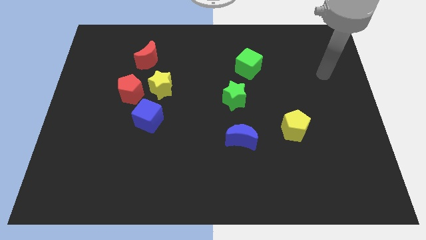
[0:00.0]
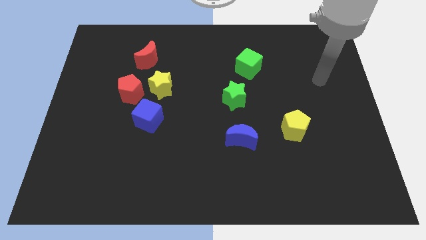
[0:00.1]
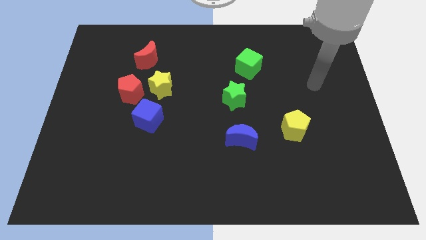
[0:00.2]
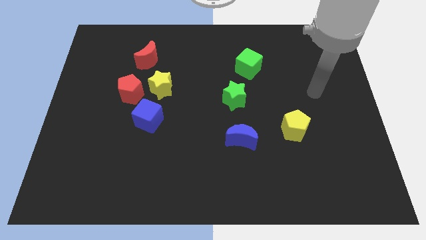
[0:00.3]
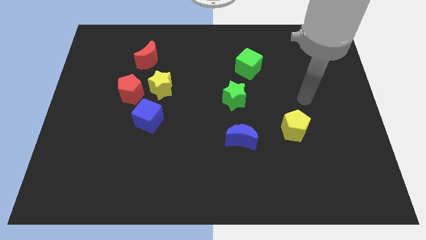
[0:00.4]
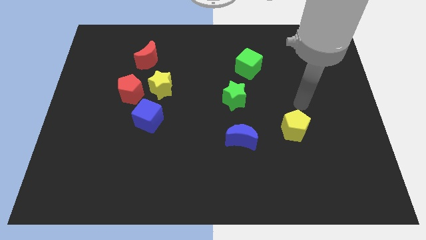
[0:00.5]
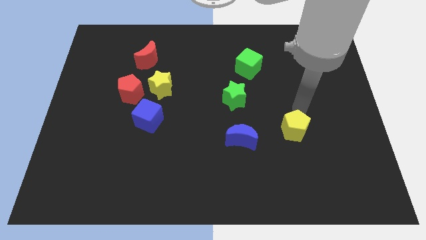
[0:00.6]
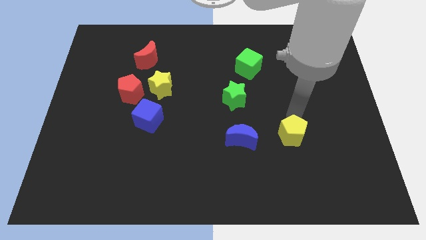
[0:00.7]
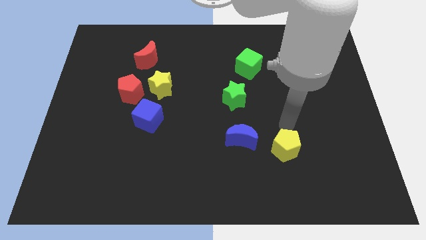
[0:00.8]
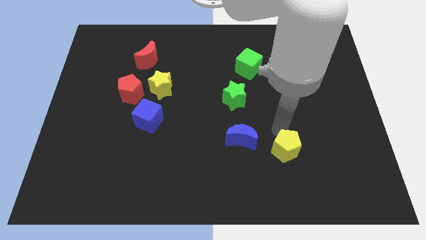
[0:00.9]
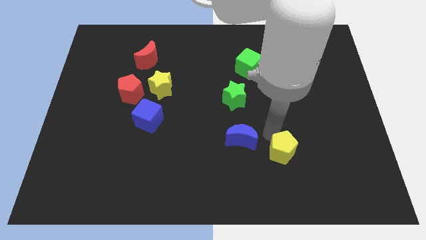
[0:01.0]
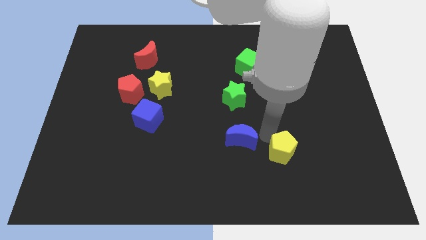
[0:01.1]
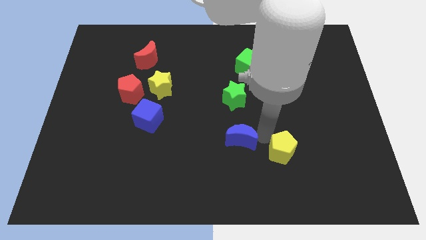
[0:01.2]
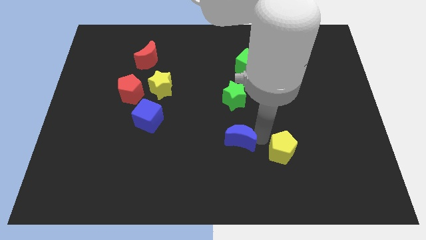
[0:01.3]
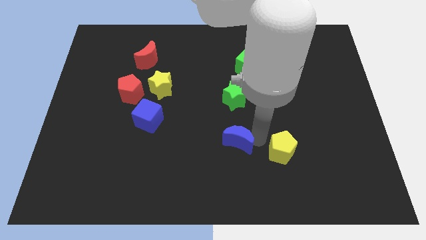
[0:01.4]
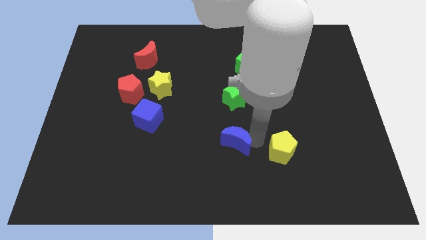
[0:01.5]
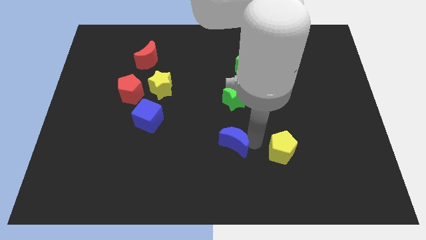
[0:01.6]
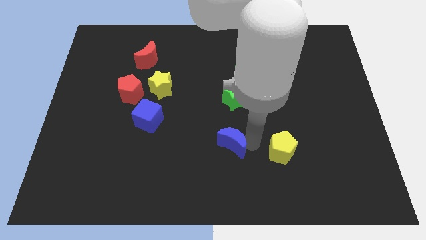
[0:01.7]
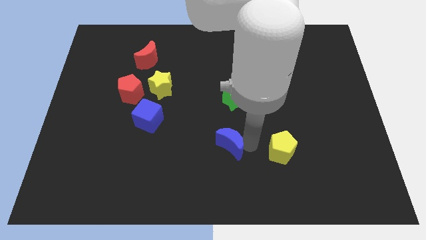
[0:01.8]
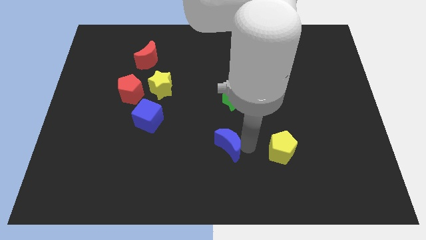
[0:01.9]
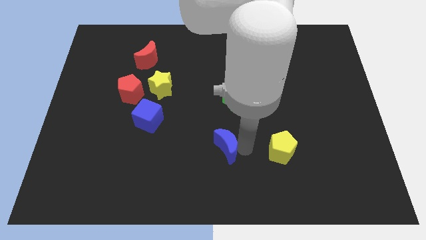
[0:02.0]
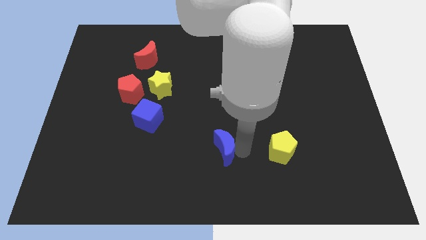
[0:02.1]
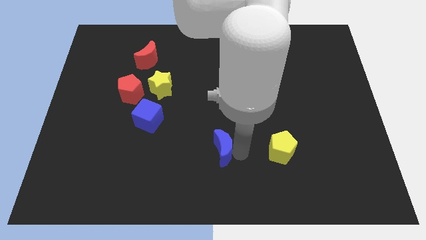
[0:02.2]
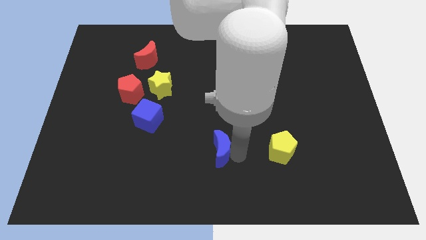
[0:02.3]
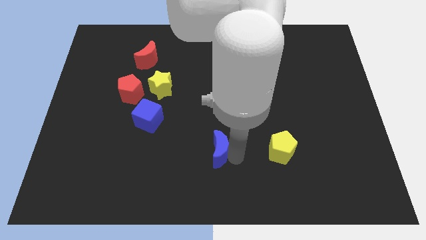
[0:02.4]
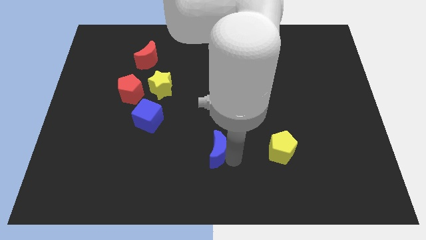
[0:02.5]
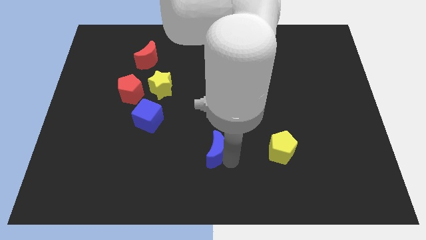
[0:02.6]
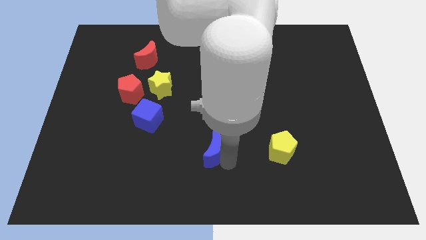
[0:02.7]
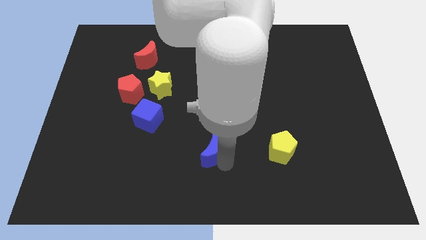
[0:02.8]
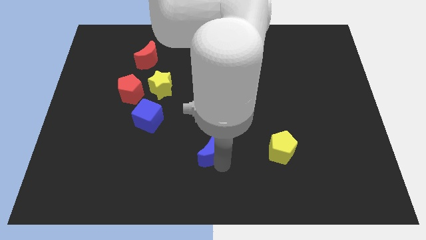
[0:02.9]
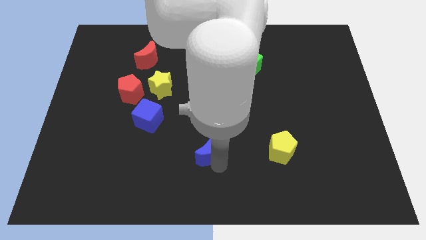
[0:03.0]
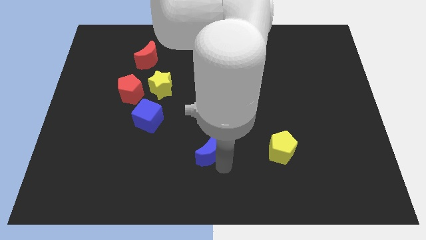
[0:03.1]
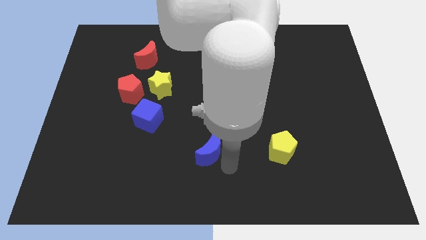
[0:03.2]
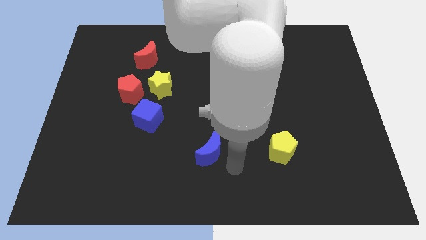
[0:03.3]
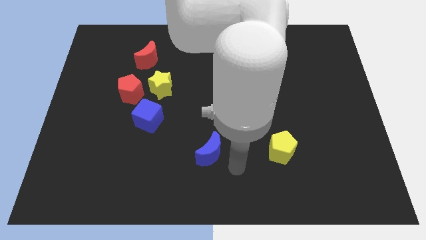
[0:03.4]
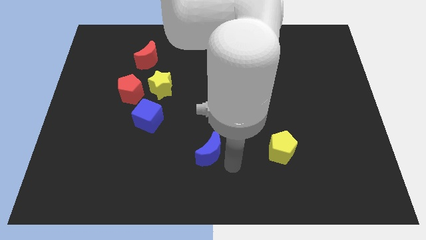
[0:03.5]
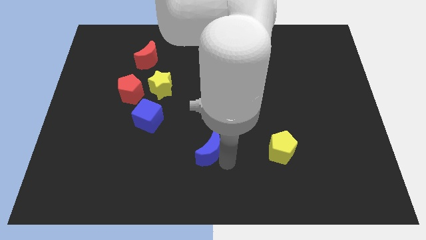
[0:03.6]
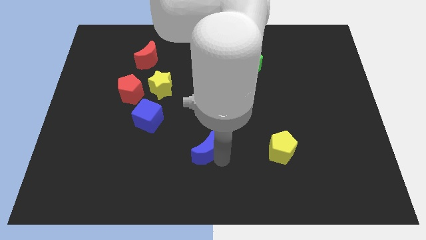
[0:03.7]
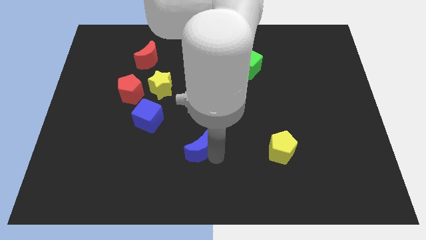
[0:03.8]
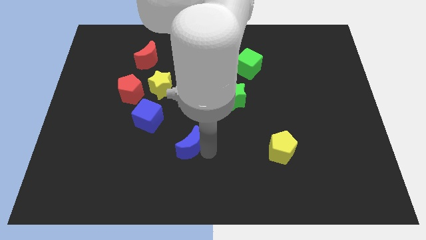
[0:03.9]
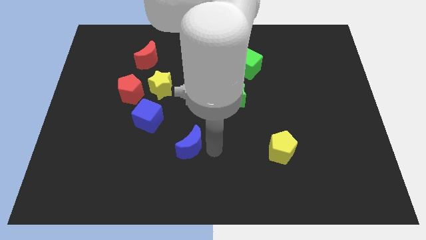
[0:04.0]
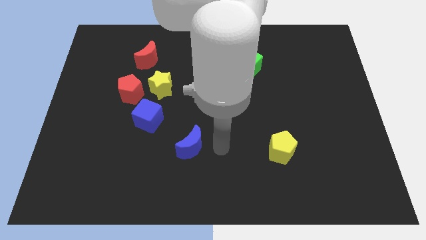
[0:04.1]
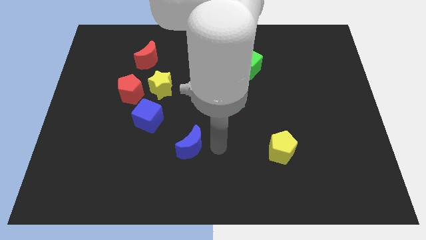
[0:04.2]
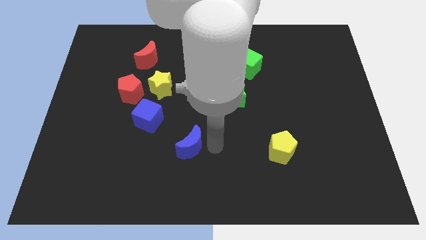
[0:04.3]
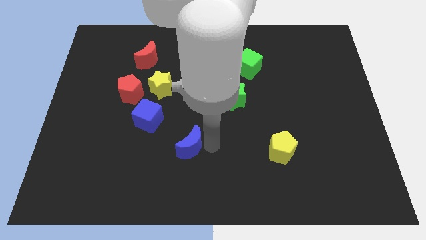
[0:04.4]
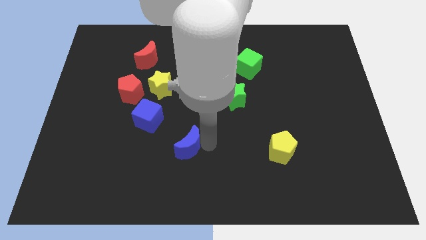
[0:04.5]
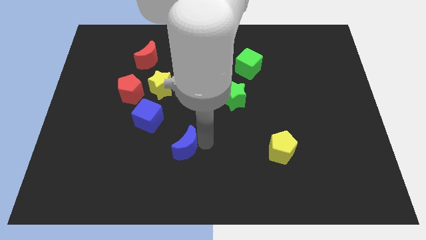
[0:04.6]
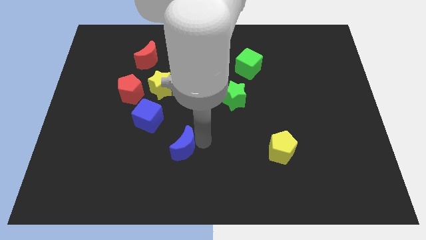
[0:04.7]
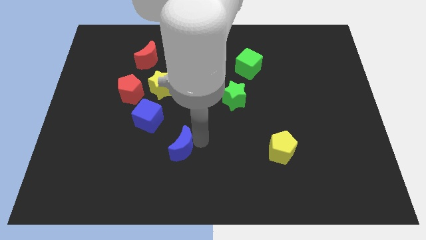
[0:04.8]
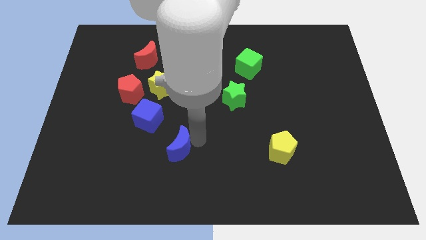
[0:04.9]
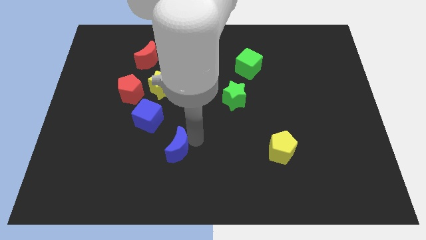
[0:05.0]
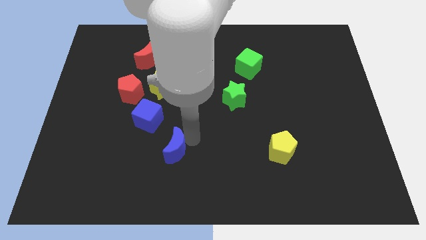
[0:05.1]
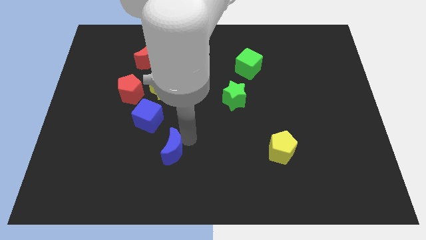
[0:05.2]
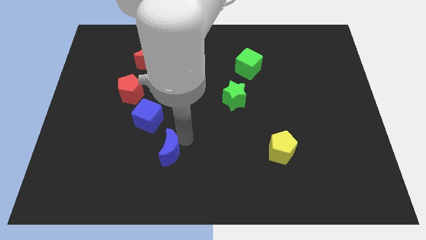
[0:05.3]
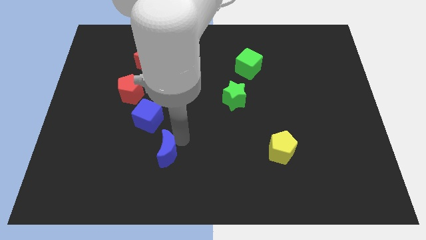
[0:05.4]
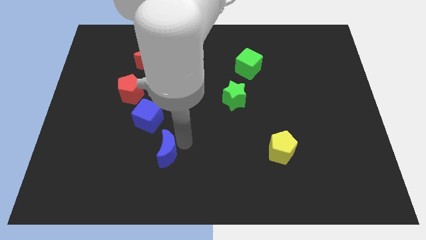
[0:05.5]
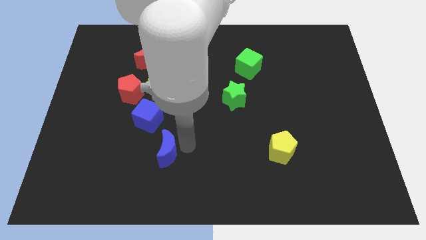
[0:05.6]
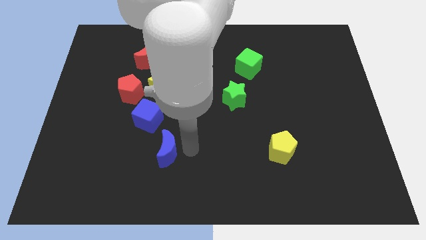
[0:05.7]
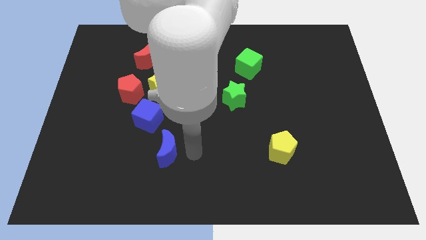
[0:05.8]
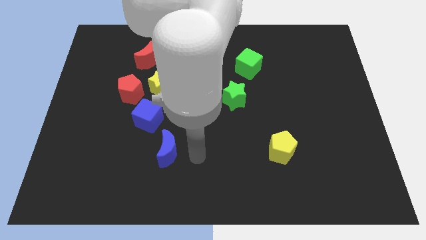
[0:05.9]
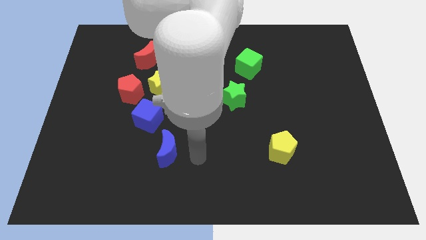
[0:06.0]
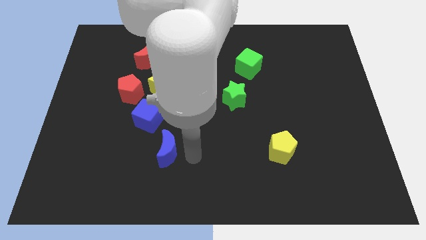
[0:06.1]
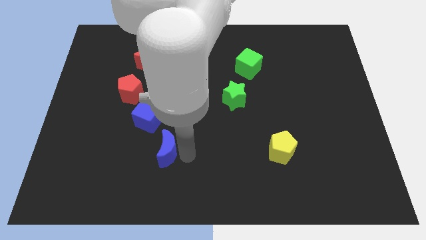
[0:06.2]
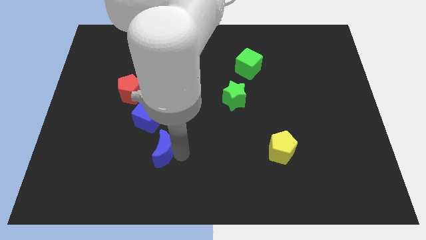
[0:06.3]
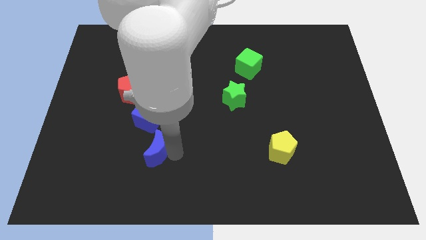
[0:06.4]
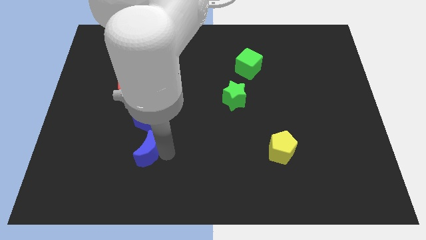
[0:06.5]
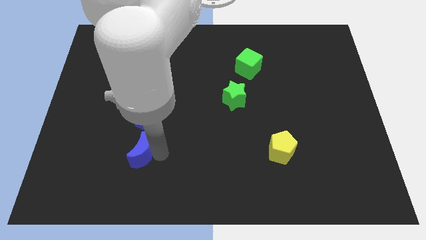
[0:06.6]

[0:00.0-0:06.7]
push the blue moon left

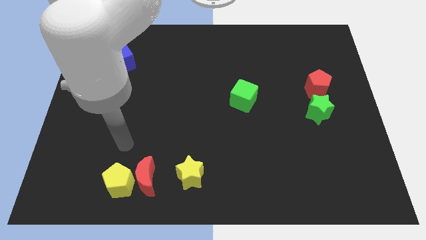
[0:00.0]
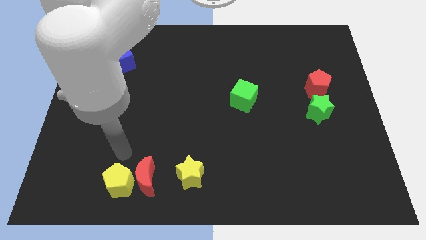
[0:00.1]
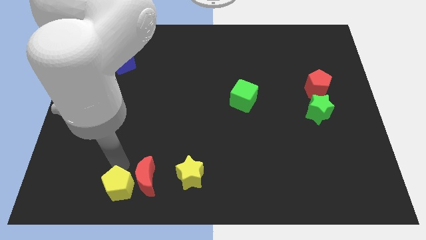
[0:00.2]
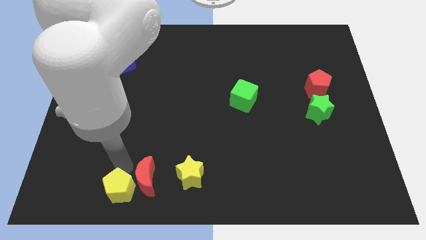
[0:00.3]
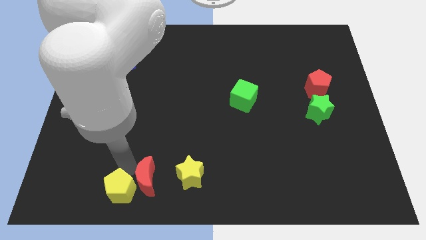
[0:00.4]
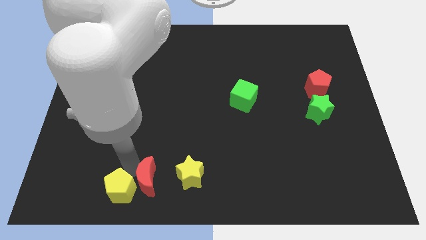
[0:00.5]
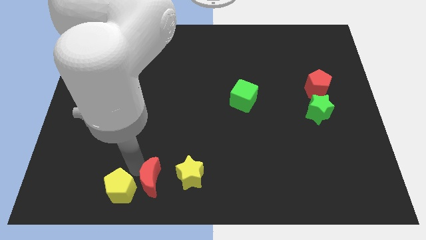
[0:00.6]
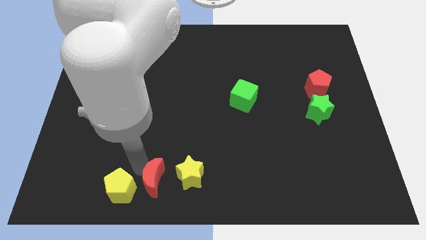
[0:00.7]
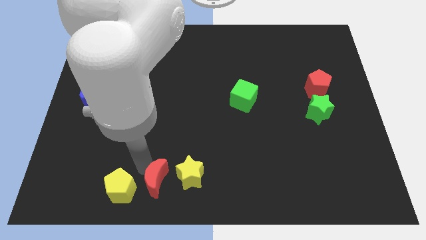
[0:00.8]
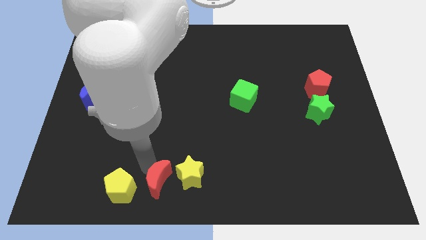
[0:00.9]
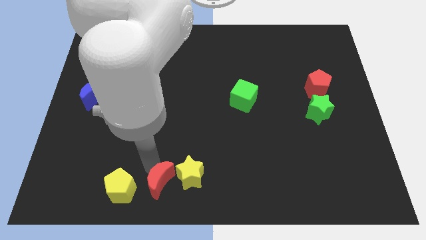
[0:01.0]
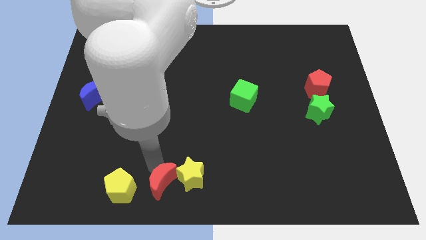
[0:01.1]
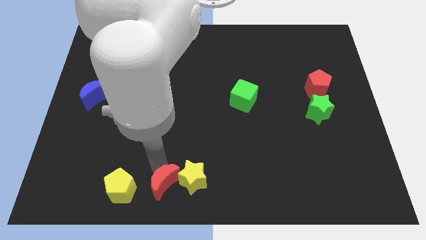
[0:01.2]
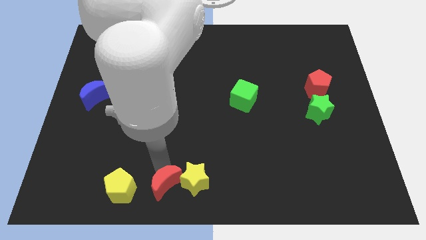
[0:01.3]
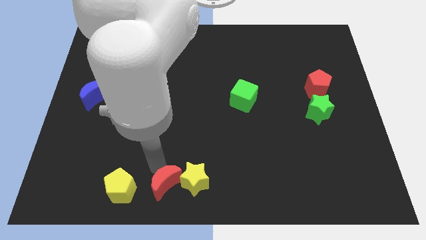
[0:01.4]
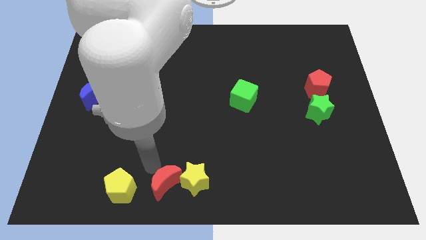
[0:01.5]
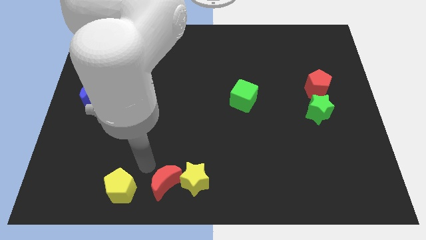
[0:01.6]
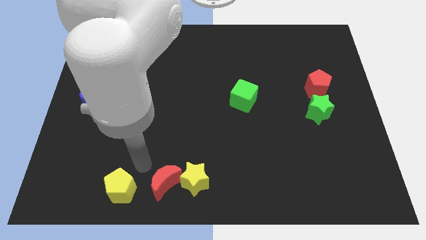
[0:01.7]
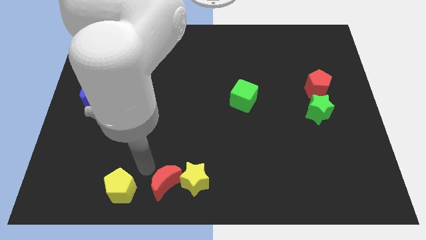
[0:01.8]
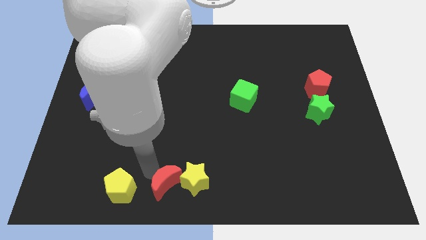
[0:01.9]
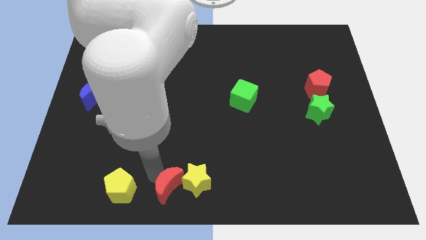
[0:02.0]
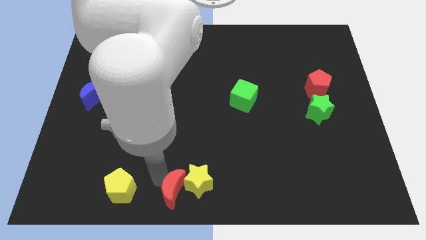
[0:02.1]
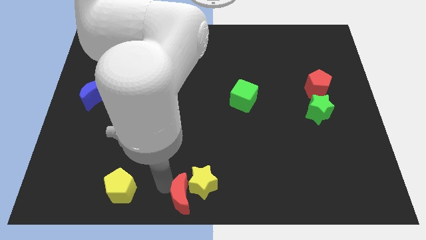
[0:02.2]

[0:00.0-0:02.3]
move the red moon right a little
